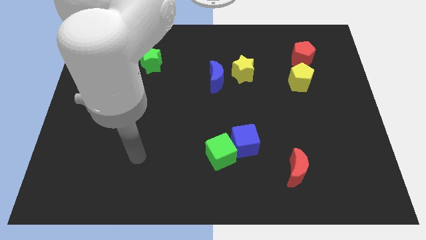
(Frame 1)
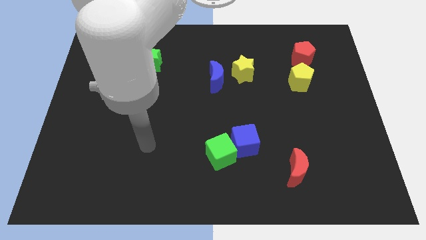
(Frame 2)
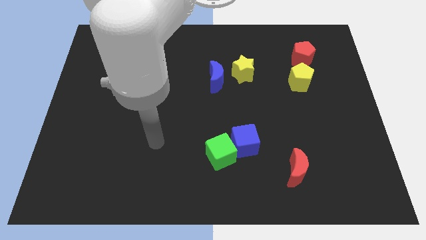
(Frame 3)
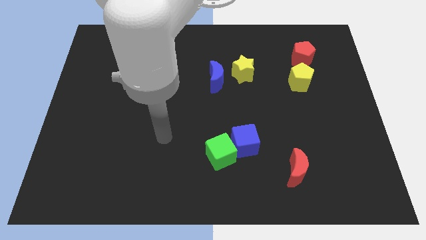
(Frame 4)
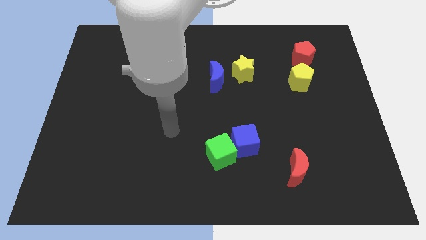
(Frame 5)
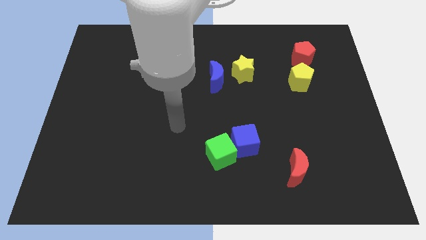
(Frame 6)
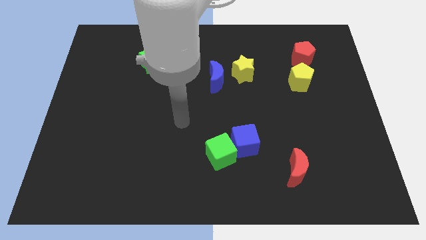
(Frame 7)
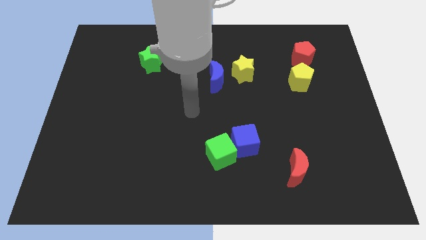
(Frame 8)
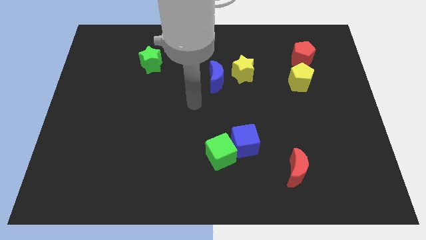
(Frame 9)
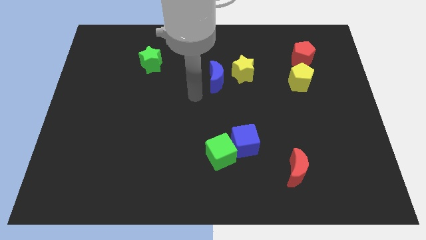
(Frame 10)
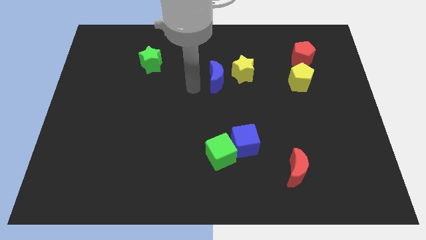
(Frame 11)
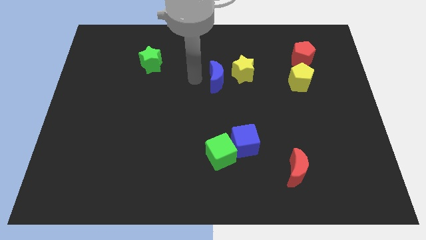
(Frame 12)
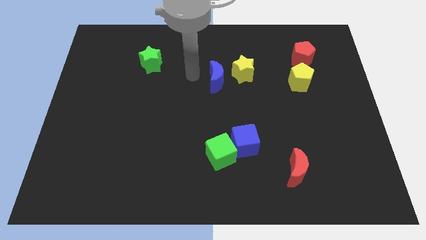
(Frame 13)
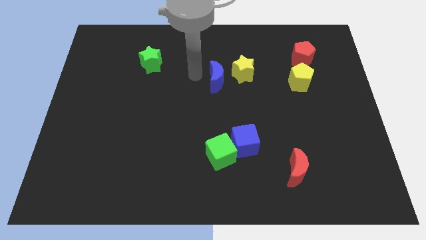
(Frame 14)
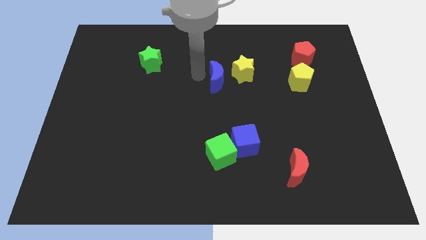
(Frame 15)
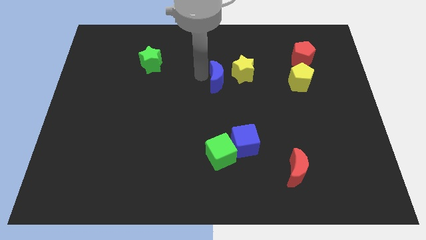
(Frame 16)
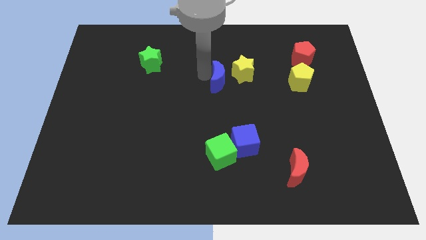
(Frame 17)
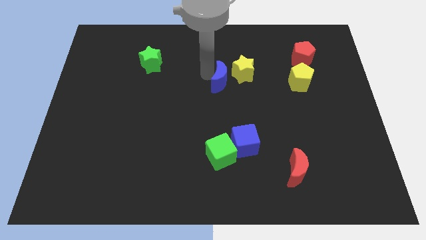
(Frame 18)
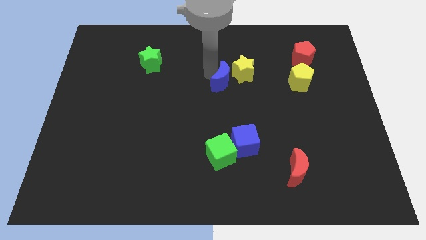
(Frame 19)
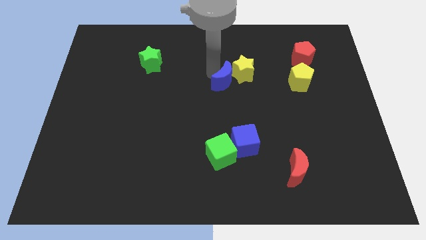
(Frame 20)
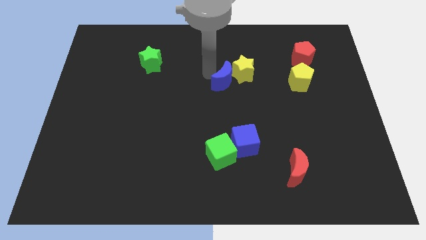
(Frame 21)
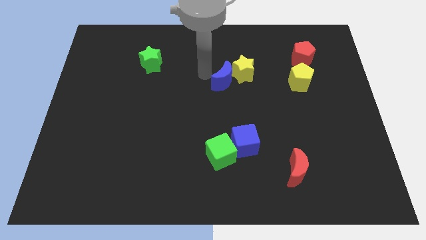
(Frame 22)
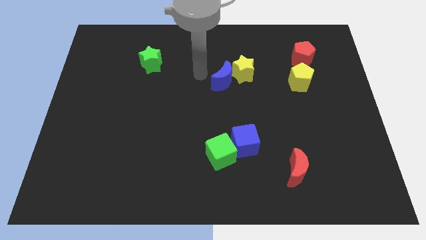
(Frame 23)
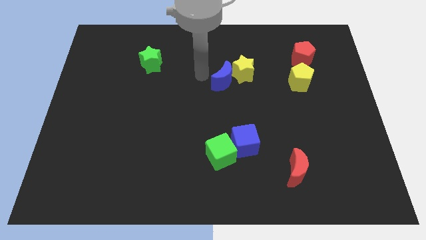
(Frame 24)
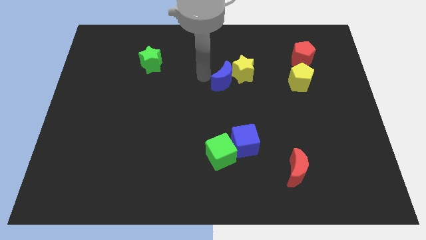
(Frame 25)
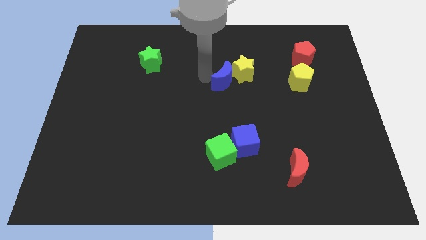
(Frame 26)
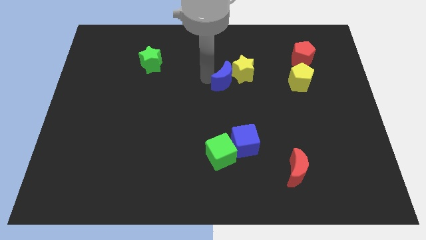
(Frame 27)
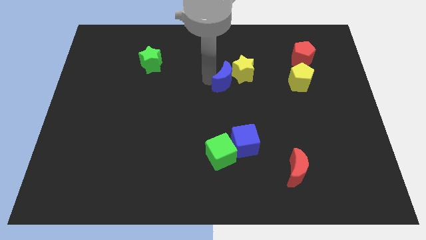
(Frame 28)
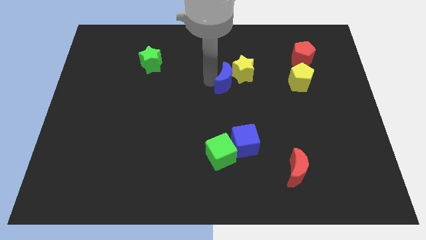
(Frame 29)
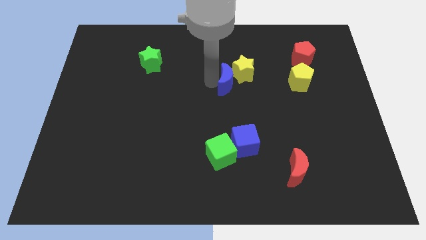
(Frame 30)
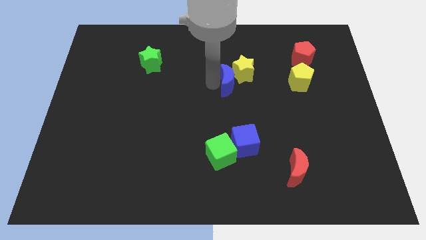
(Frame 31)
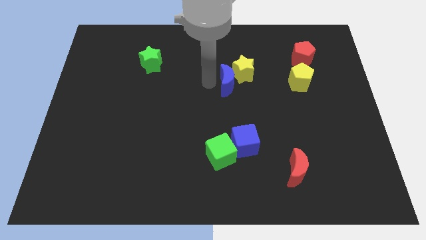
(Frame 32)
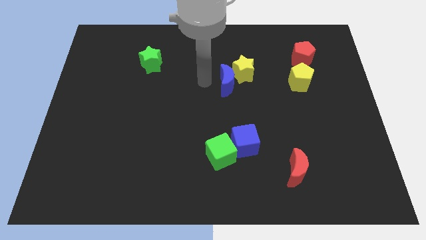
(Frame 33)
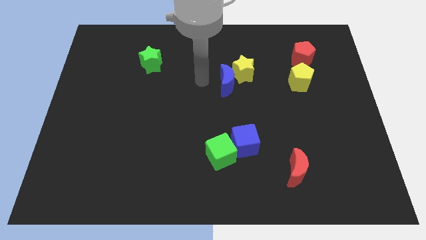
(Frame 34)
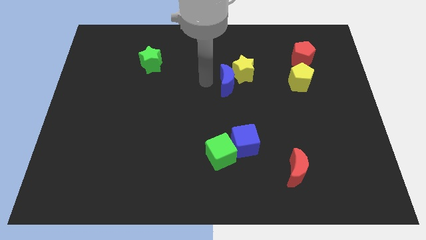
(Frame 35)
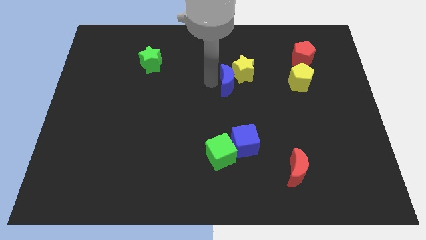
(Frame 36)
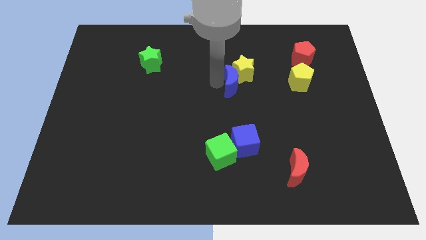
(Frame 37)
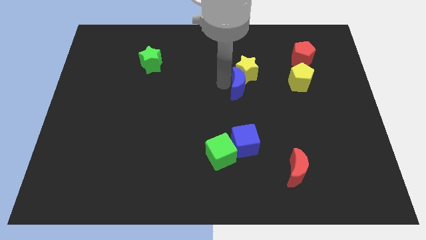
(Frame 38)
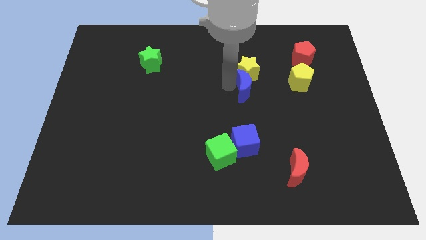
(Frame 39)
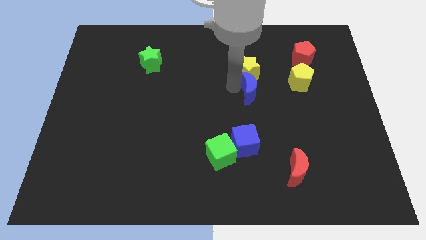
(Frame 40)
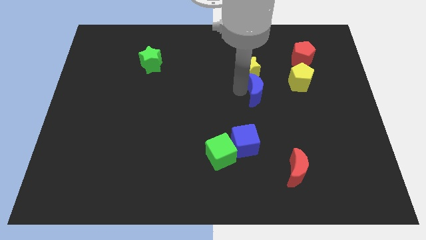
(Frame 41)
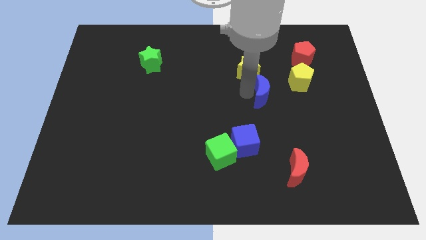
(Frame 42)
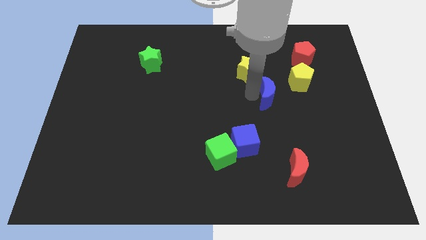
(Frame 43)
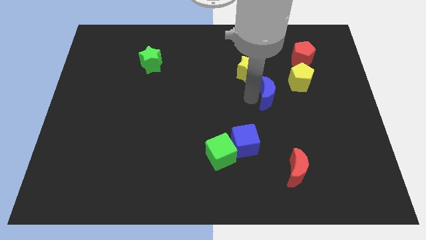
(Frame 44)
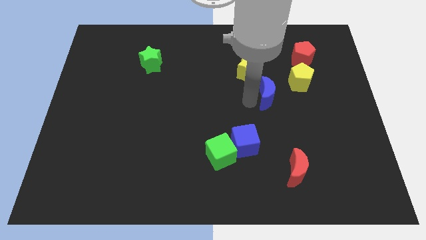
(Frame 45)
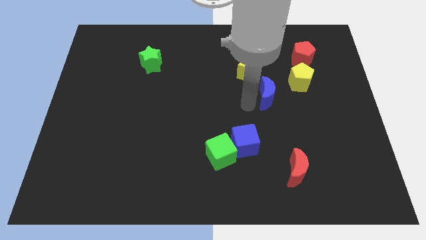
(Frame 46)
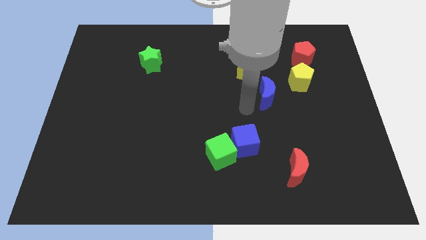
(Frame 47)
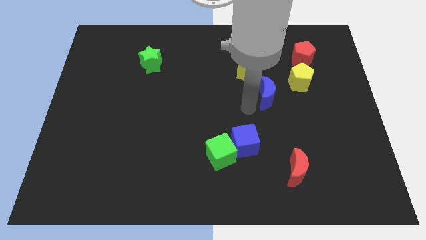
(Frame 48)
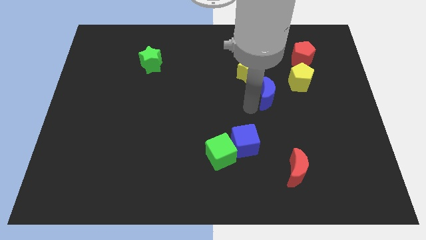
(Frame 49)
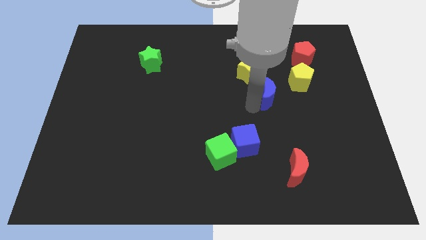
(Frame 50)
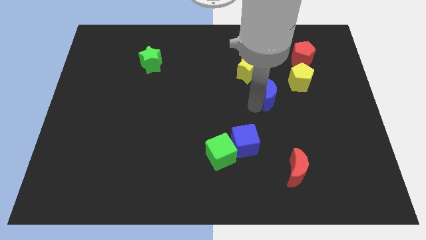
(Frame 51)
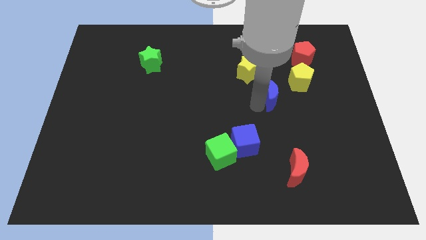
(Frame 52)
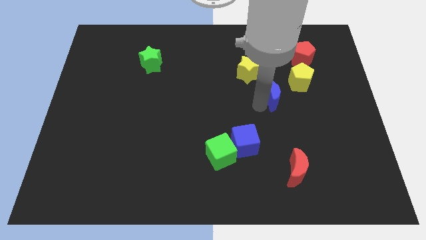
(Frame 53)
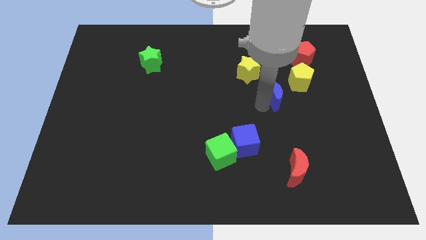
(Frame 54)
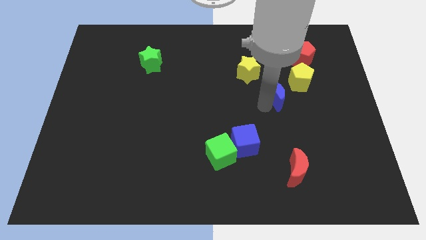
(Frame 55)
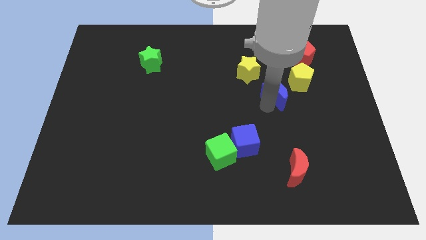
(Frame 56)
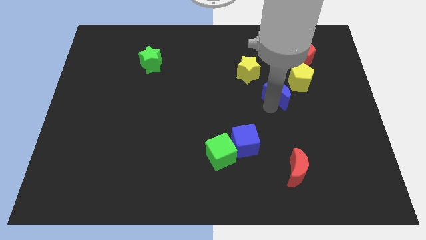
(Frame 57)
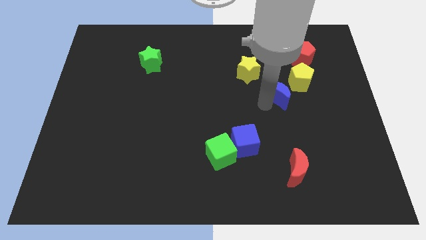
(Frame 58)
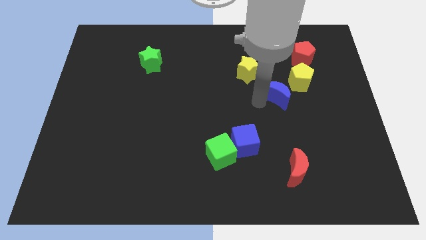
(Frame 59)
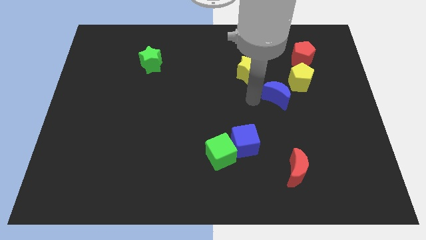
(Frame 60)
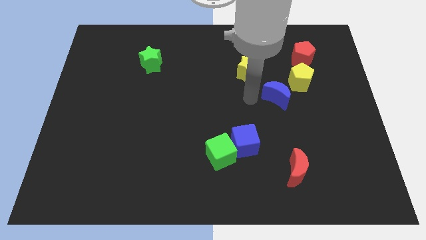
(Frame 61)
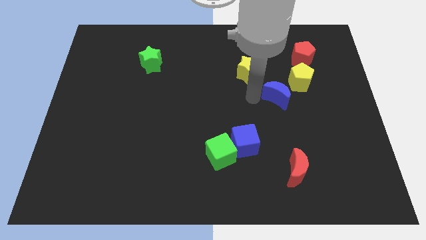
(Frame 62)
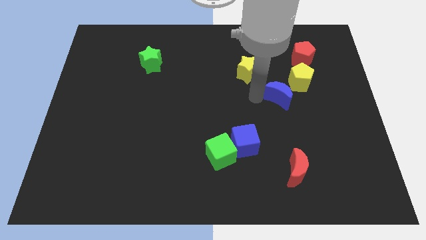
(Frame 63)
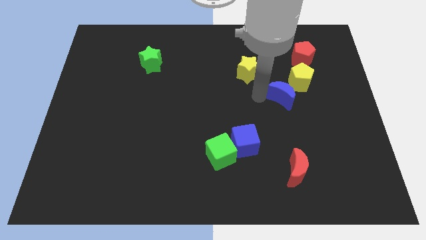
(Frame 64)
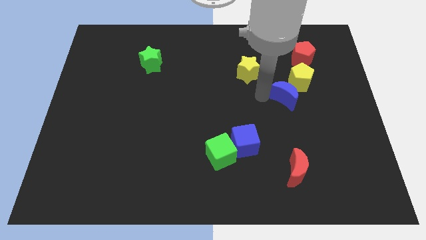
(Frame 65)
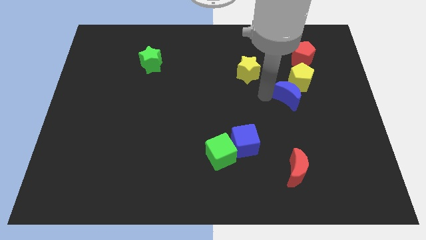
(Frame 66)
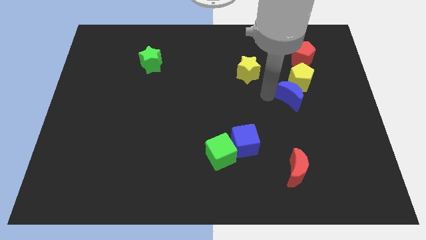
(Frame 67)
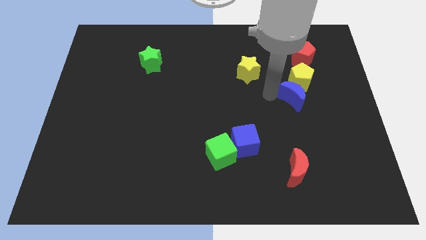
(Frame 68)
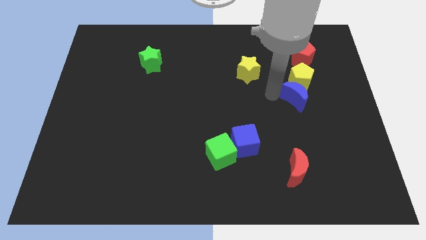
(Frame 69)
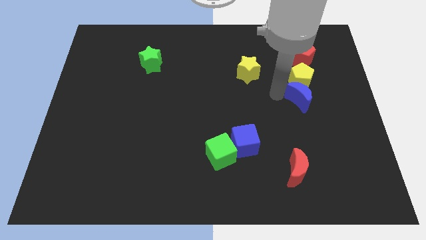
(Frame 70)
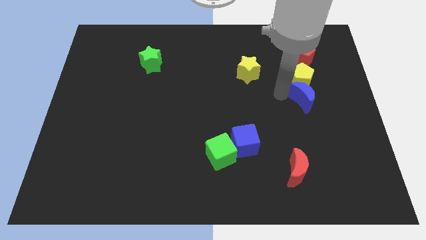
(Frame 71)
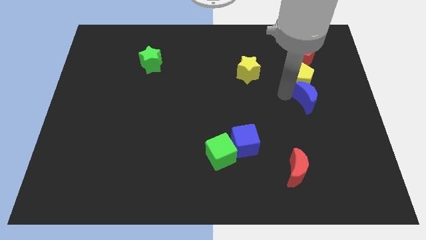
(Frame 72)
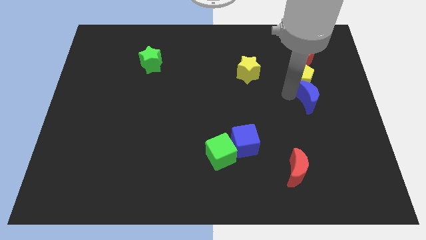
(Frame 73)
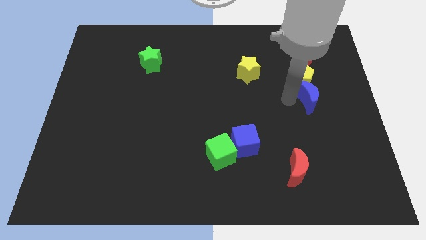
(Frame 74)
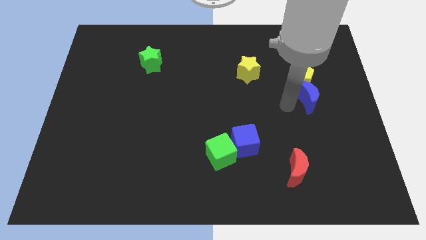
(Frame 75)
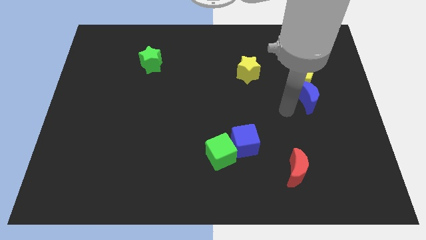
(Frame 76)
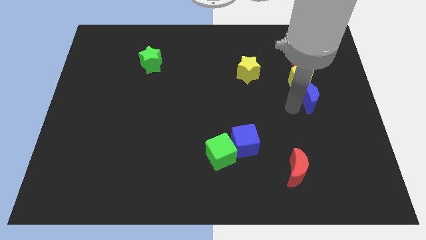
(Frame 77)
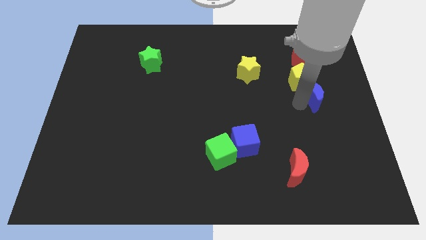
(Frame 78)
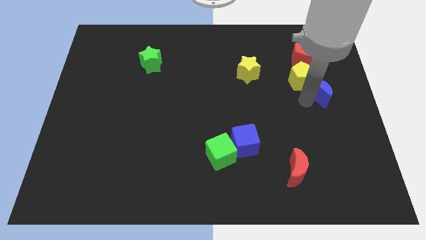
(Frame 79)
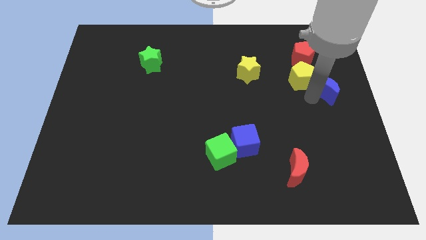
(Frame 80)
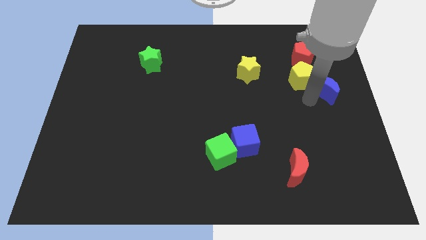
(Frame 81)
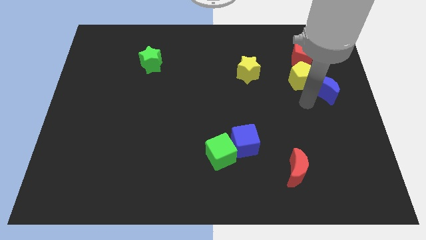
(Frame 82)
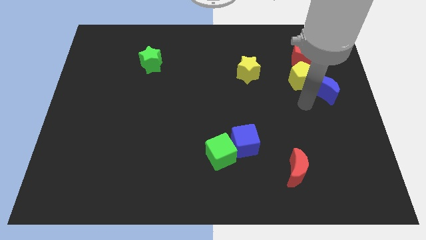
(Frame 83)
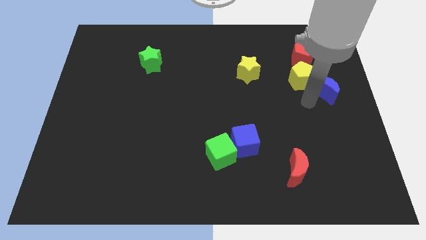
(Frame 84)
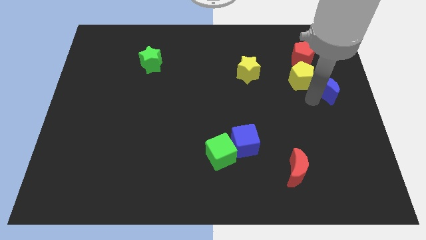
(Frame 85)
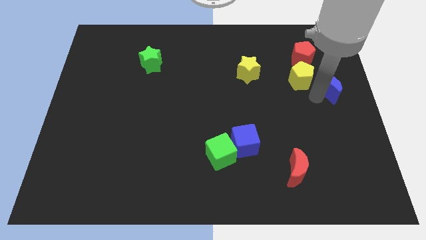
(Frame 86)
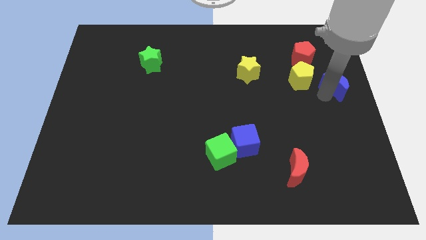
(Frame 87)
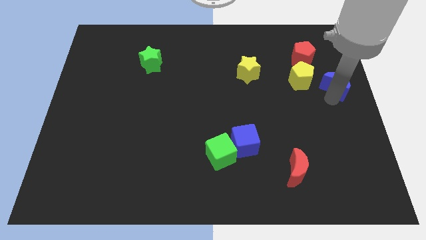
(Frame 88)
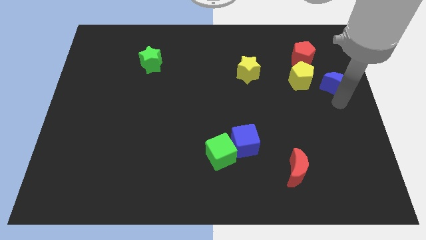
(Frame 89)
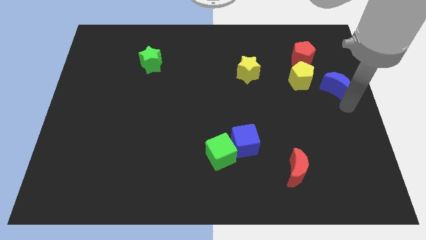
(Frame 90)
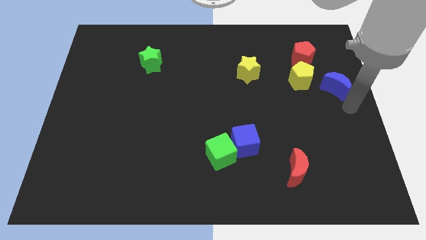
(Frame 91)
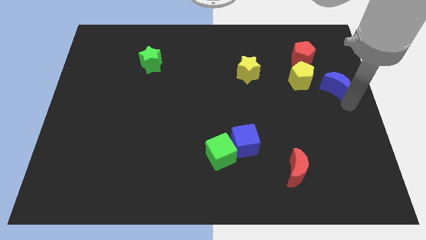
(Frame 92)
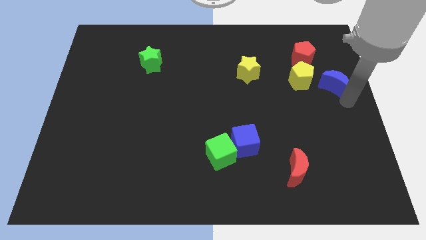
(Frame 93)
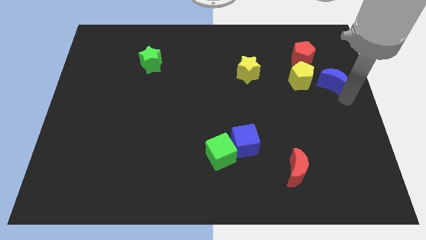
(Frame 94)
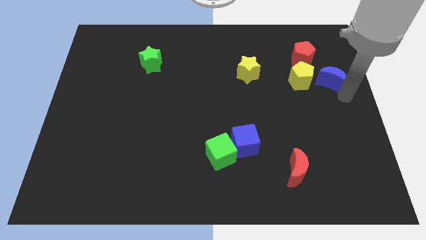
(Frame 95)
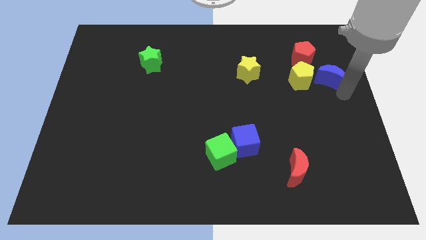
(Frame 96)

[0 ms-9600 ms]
put the blue moon to the top right side of the yellow pentagon
